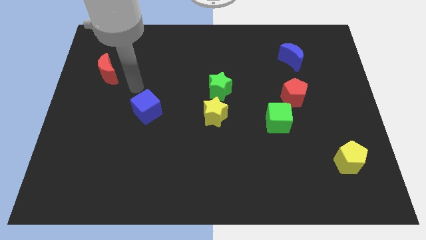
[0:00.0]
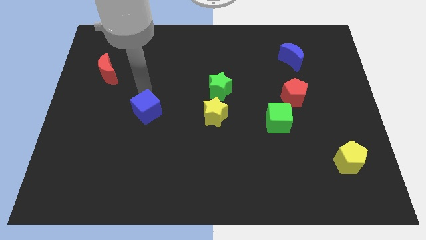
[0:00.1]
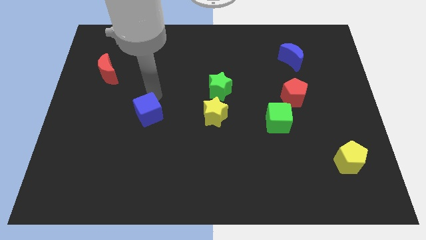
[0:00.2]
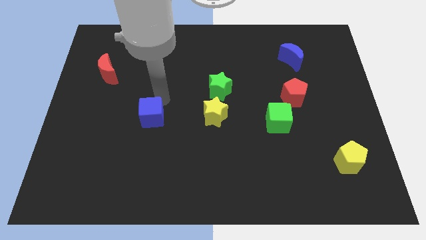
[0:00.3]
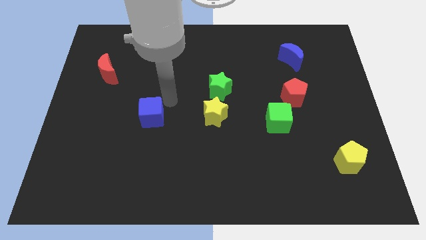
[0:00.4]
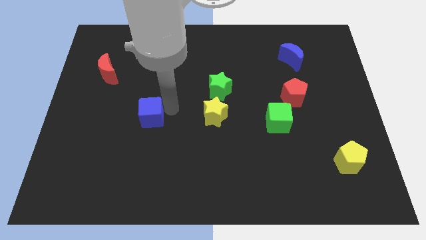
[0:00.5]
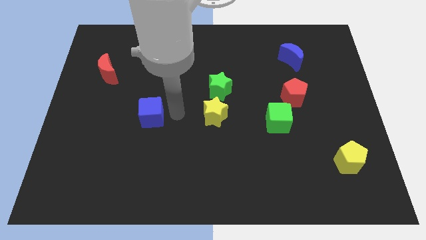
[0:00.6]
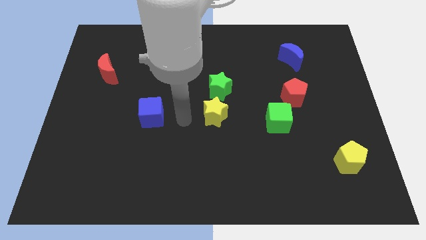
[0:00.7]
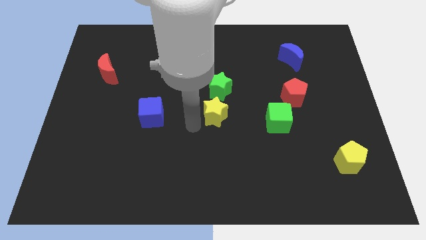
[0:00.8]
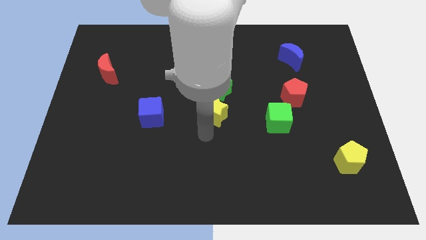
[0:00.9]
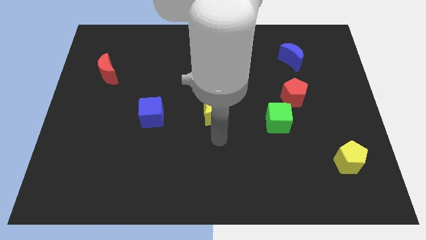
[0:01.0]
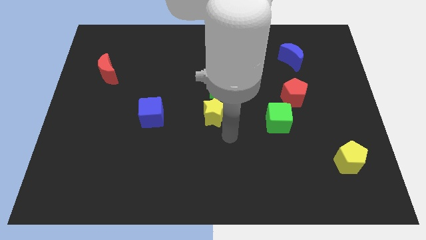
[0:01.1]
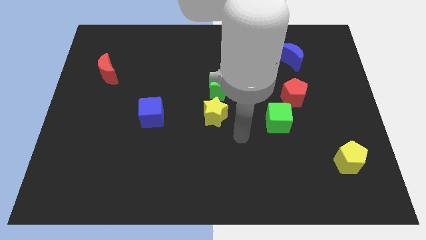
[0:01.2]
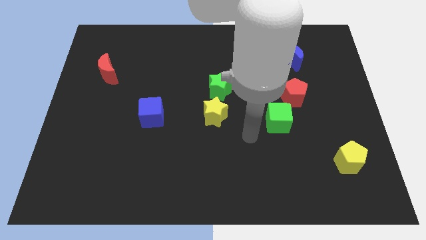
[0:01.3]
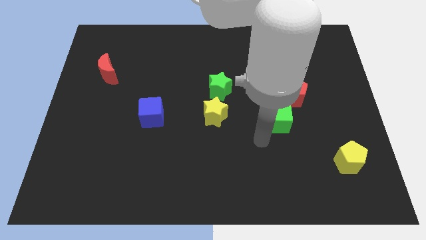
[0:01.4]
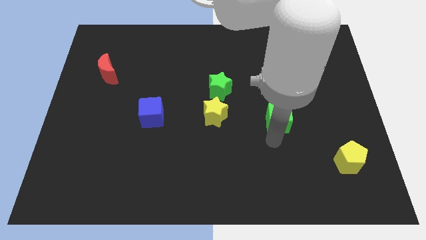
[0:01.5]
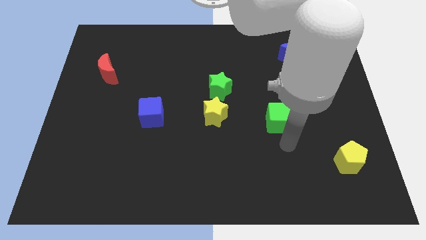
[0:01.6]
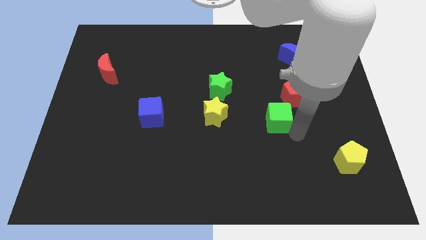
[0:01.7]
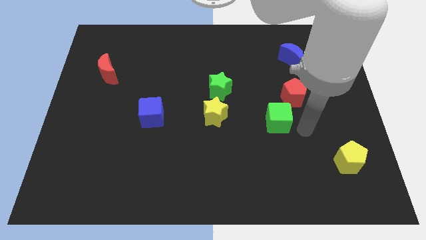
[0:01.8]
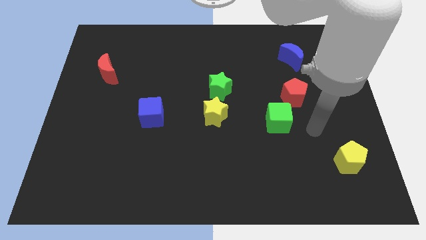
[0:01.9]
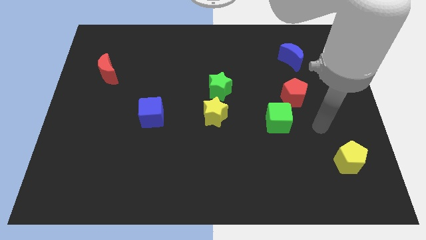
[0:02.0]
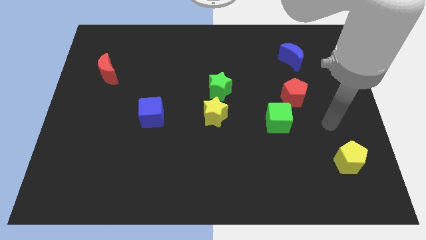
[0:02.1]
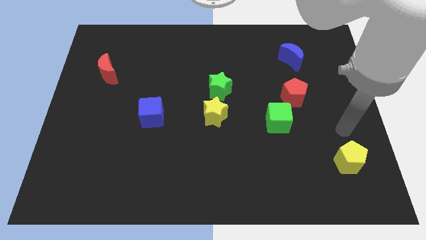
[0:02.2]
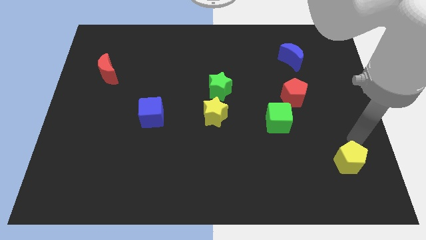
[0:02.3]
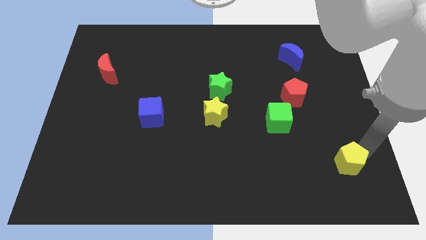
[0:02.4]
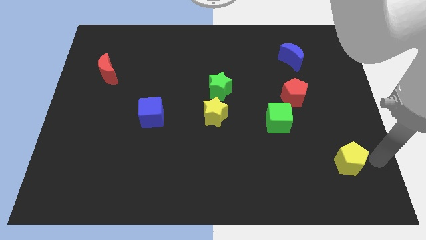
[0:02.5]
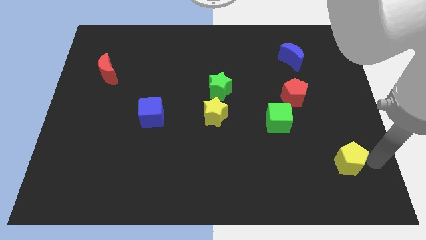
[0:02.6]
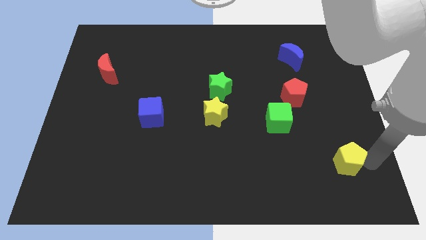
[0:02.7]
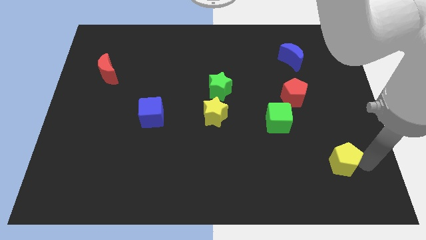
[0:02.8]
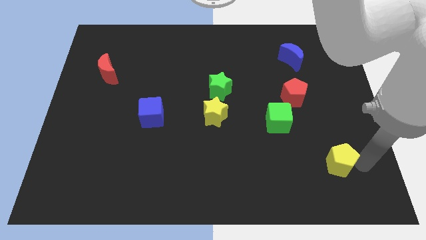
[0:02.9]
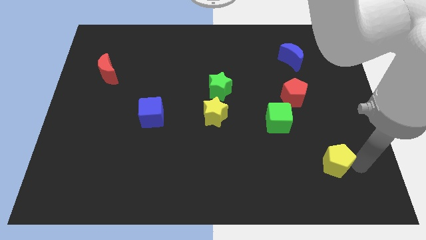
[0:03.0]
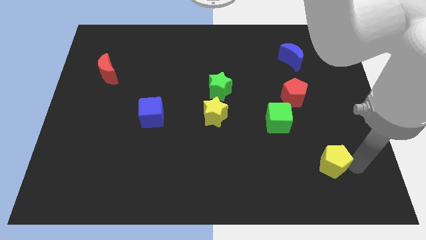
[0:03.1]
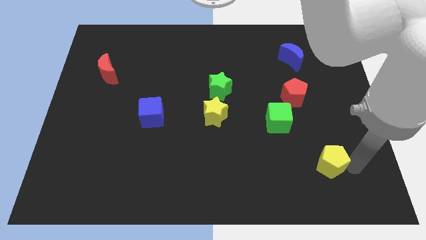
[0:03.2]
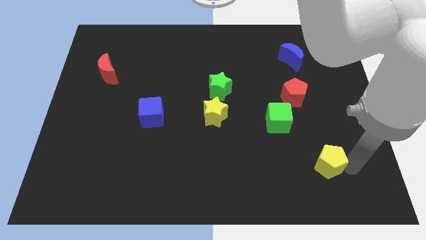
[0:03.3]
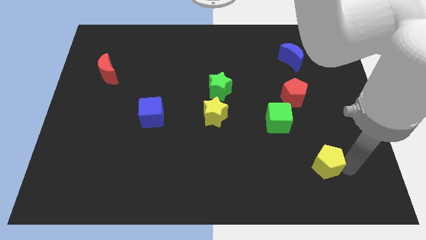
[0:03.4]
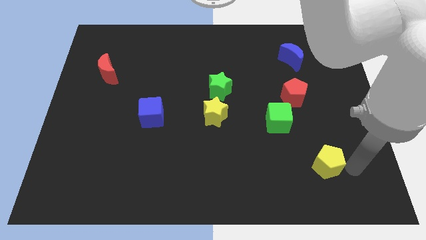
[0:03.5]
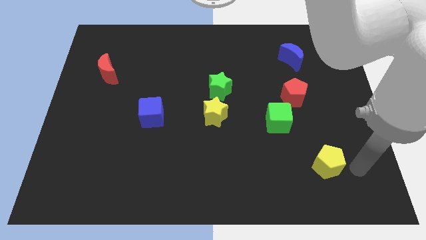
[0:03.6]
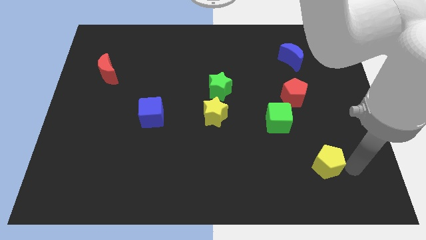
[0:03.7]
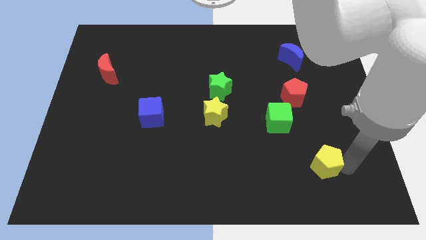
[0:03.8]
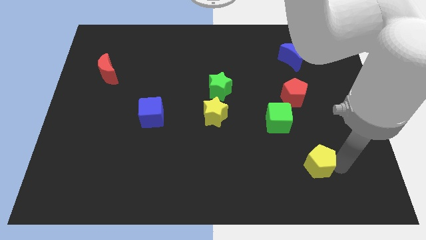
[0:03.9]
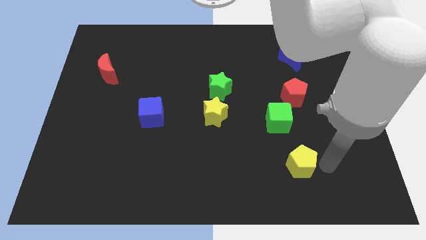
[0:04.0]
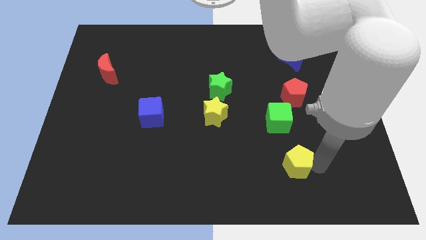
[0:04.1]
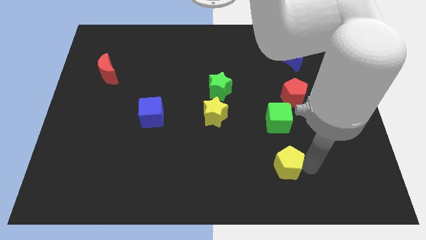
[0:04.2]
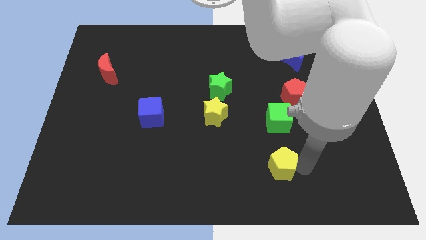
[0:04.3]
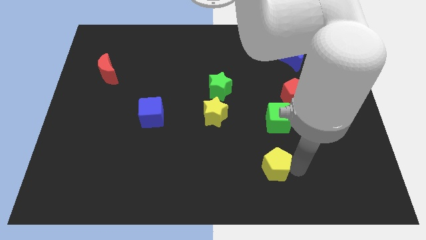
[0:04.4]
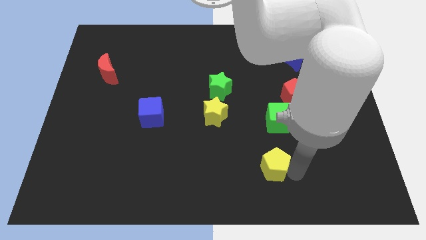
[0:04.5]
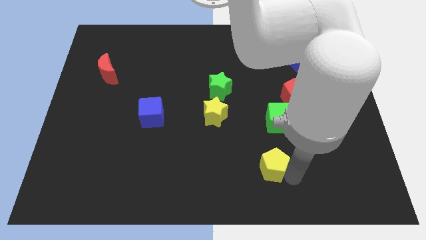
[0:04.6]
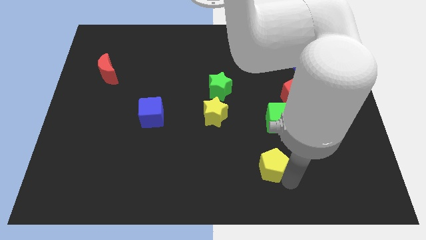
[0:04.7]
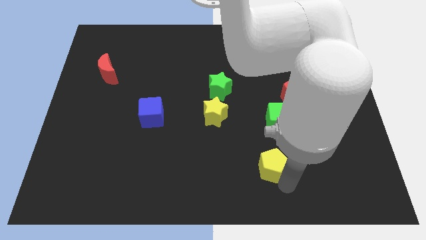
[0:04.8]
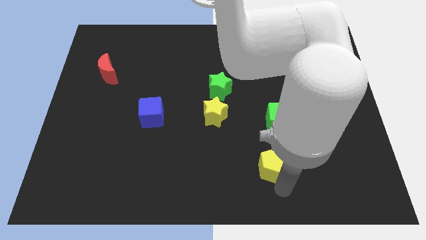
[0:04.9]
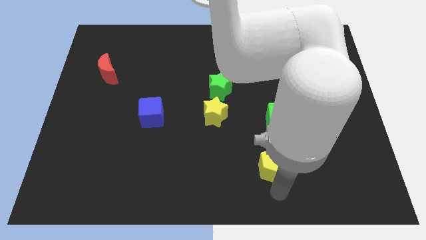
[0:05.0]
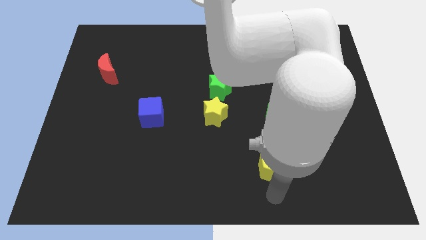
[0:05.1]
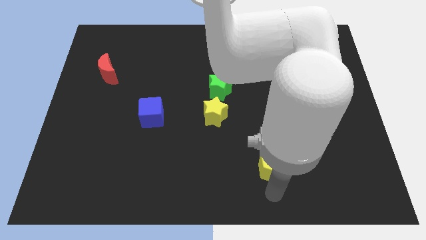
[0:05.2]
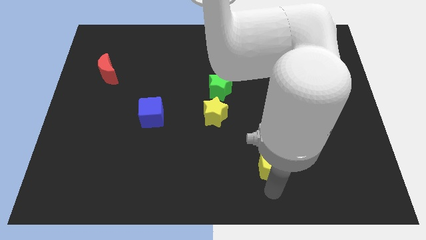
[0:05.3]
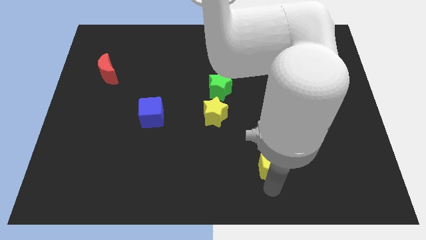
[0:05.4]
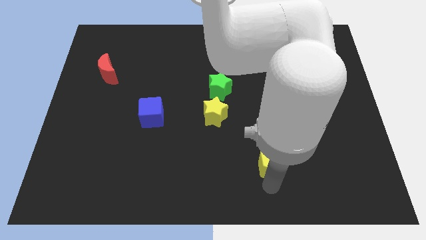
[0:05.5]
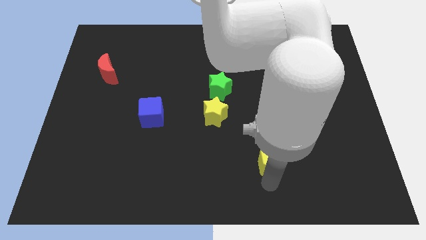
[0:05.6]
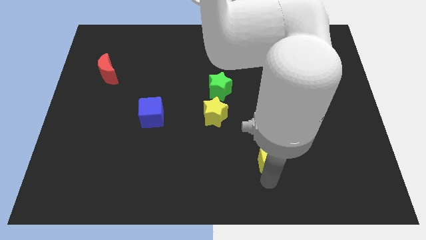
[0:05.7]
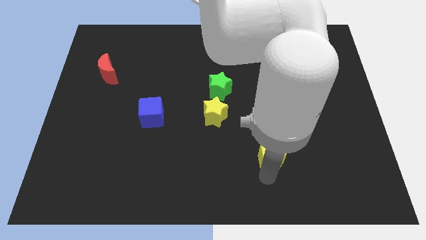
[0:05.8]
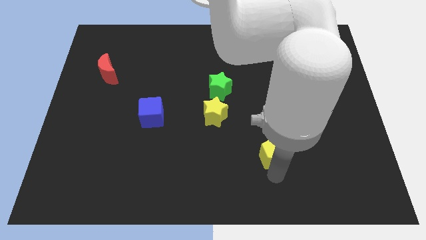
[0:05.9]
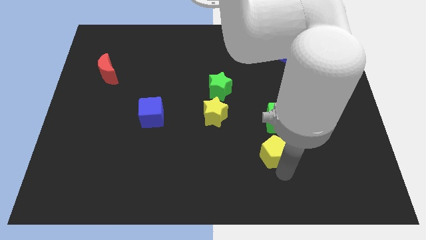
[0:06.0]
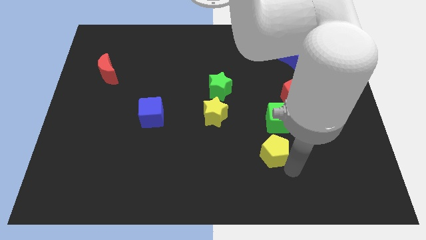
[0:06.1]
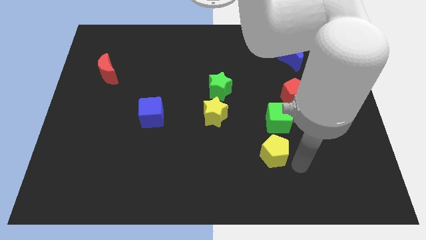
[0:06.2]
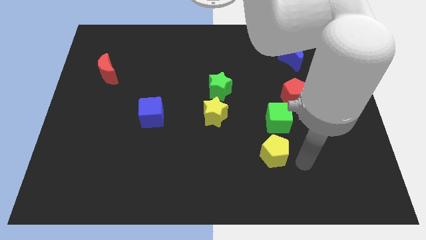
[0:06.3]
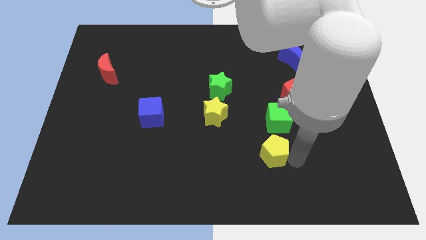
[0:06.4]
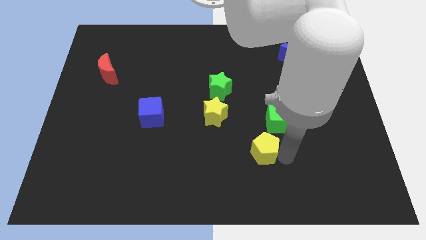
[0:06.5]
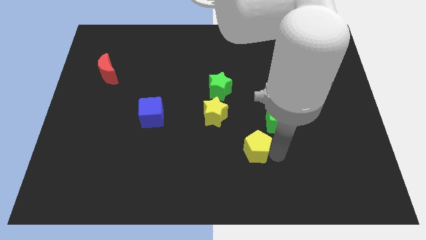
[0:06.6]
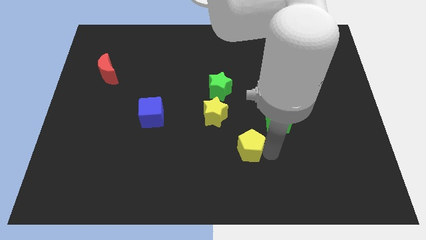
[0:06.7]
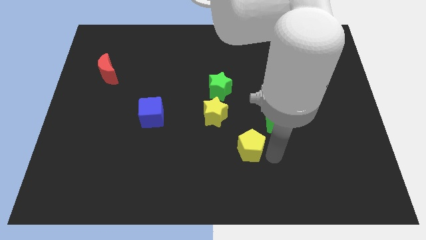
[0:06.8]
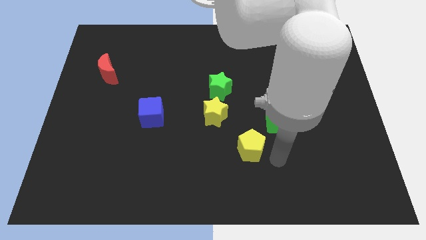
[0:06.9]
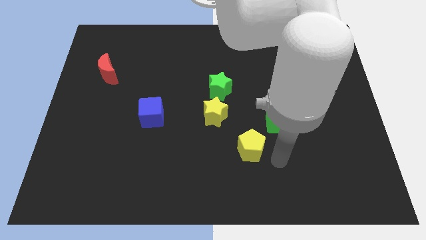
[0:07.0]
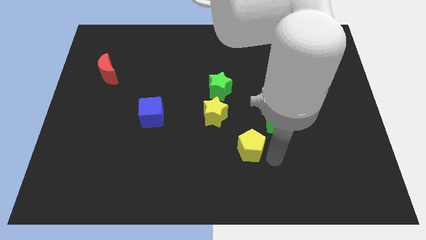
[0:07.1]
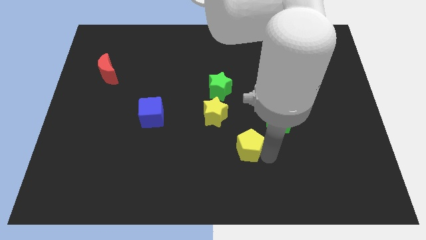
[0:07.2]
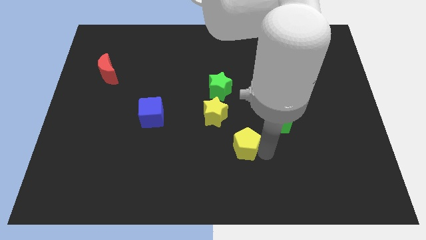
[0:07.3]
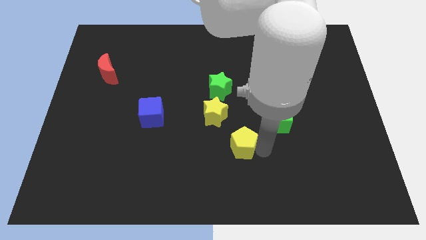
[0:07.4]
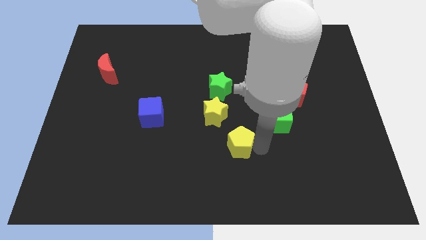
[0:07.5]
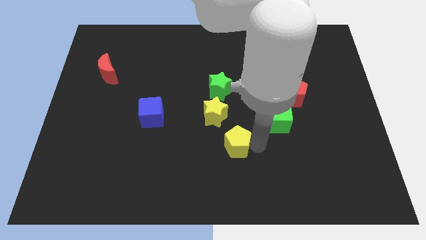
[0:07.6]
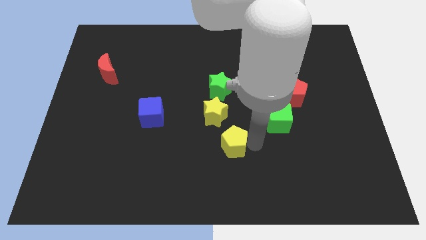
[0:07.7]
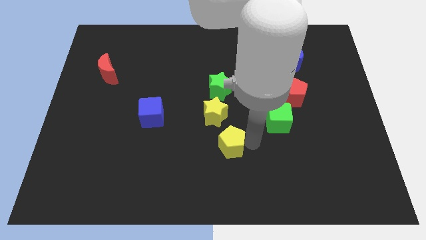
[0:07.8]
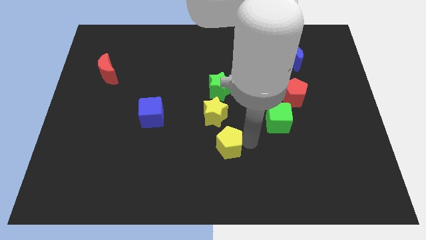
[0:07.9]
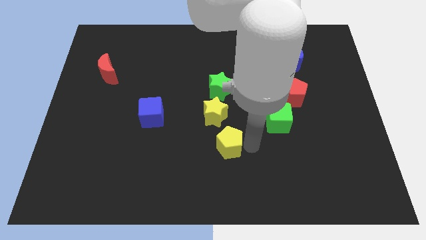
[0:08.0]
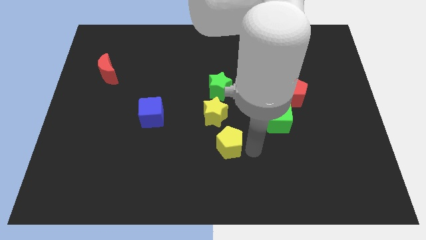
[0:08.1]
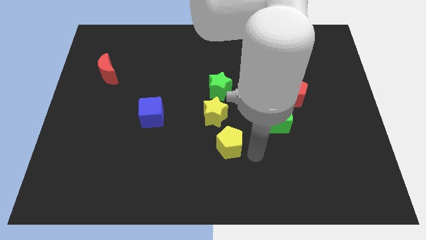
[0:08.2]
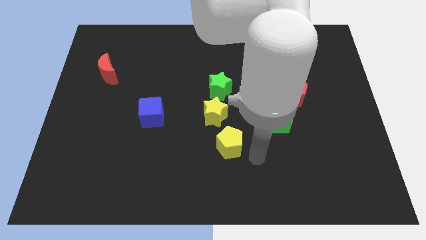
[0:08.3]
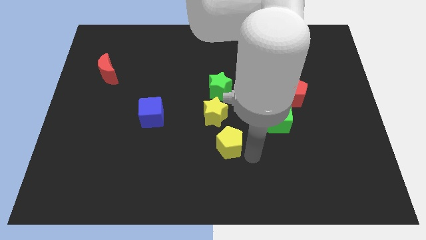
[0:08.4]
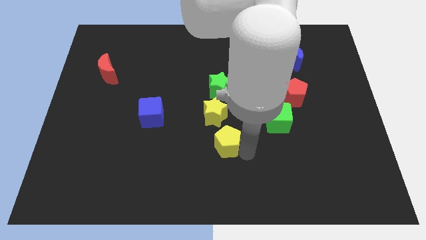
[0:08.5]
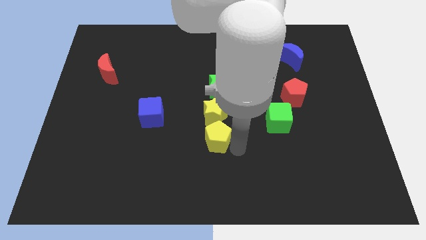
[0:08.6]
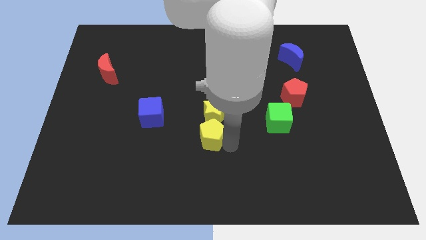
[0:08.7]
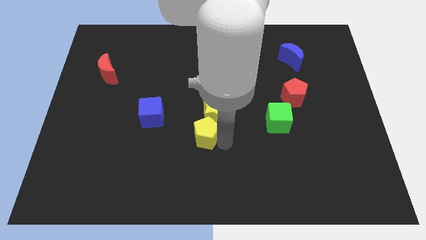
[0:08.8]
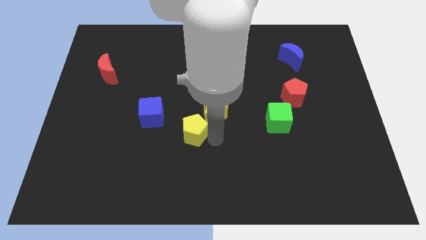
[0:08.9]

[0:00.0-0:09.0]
move the yellow pentagon left of the yellow star
